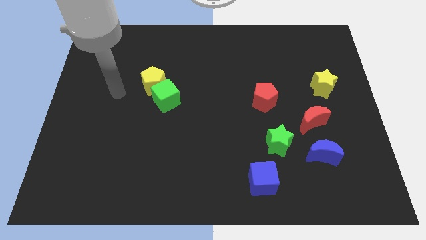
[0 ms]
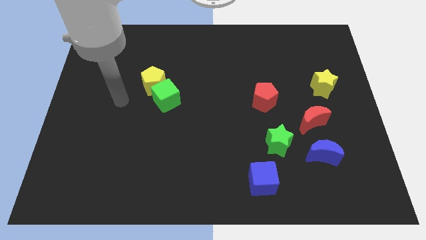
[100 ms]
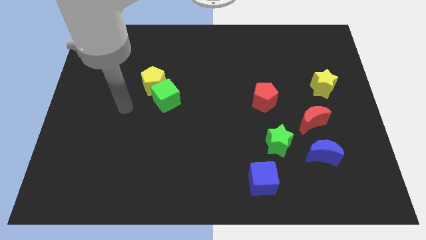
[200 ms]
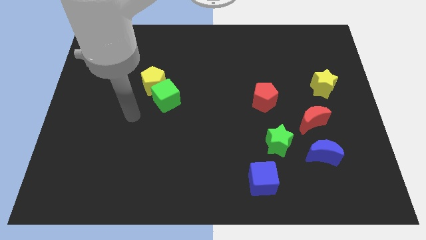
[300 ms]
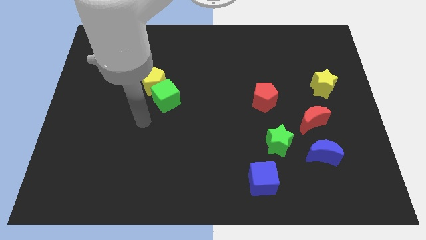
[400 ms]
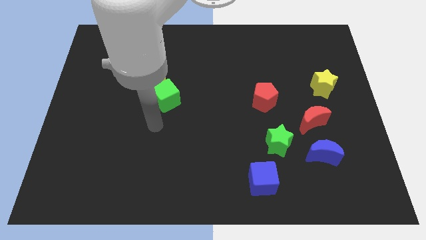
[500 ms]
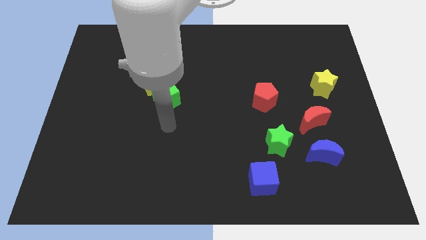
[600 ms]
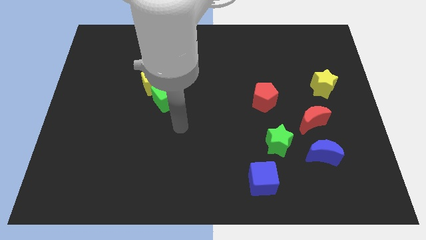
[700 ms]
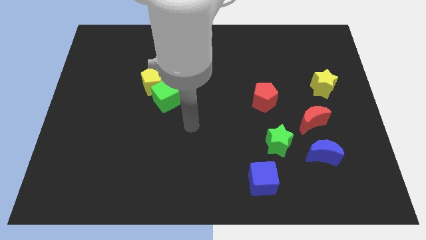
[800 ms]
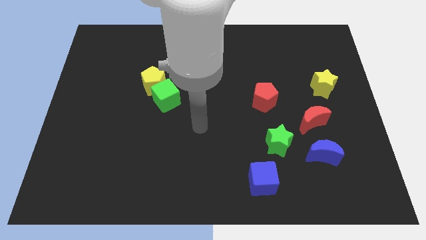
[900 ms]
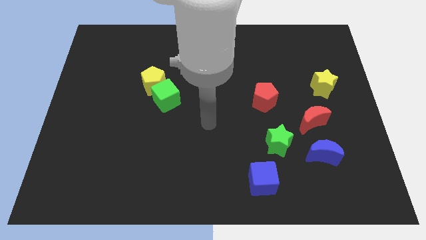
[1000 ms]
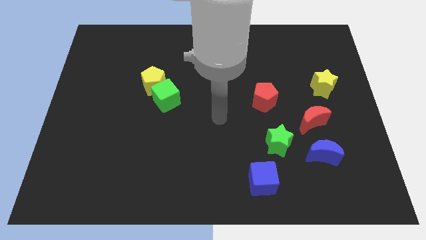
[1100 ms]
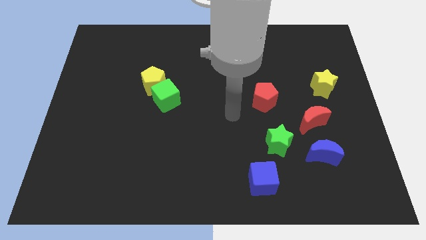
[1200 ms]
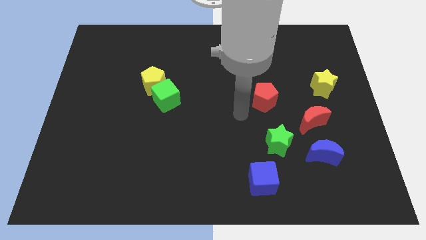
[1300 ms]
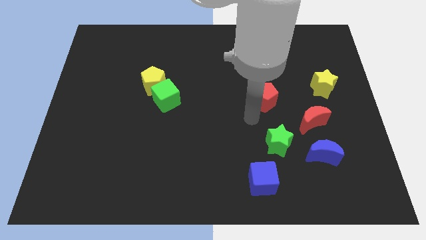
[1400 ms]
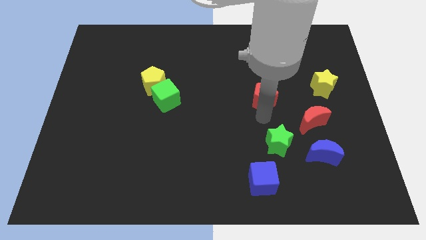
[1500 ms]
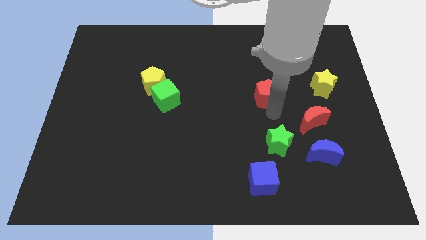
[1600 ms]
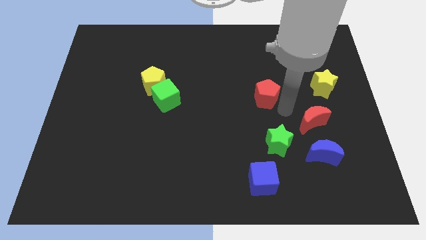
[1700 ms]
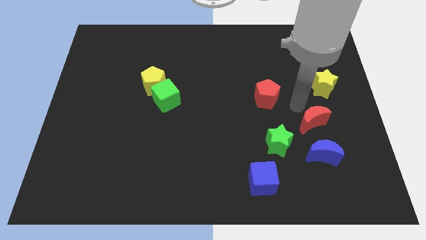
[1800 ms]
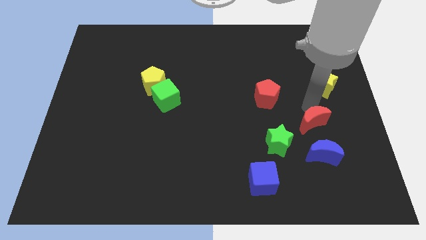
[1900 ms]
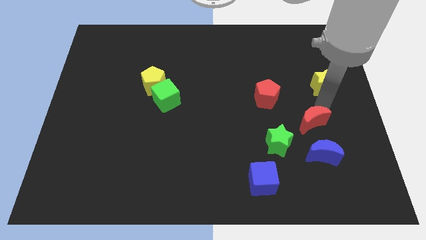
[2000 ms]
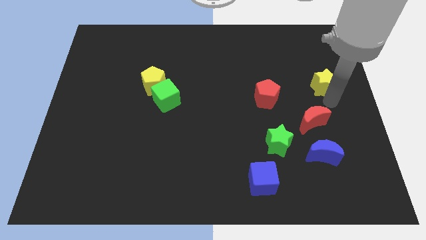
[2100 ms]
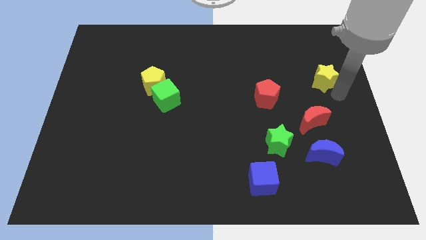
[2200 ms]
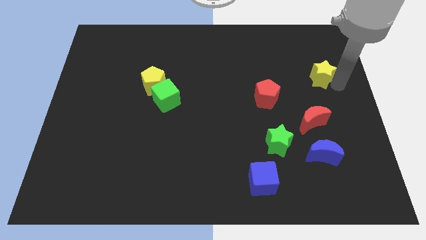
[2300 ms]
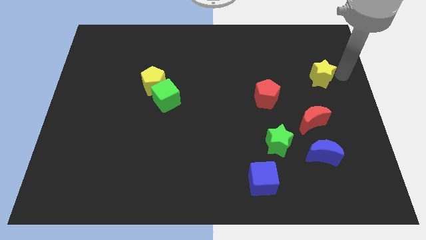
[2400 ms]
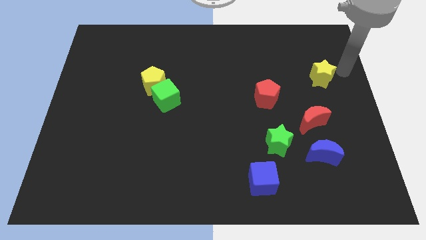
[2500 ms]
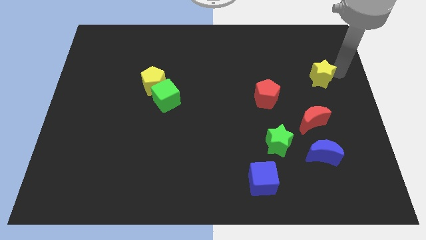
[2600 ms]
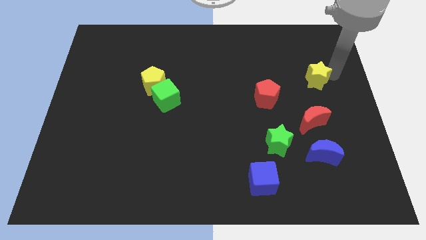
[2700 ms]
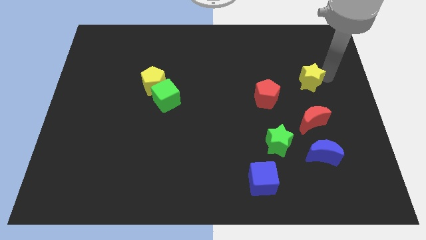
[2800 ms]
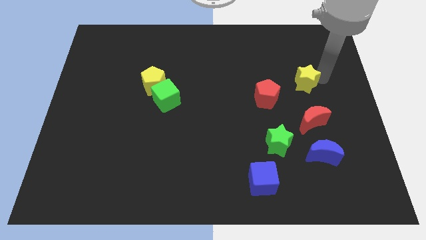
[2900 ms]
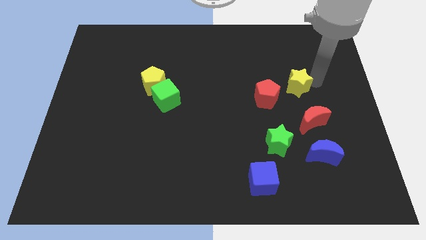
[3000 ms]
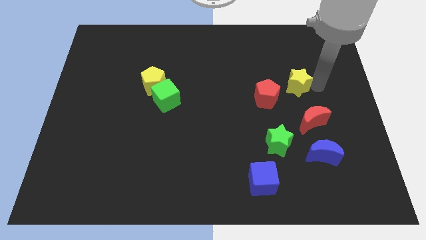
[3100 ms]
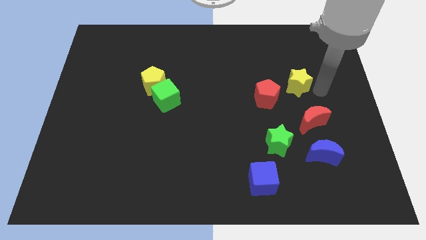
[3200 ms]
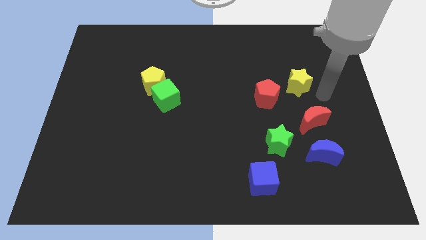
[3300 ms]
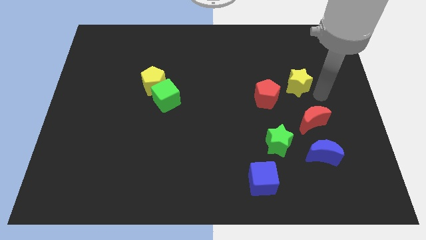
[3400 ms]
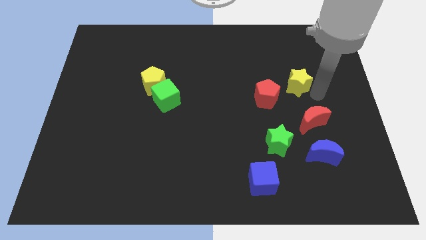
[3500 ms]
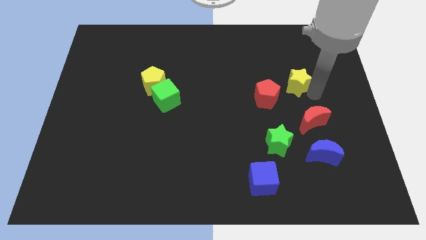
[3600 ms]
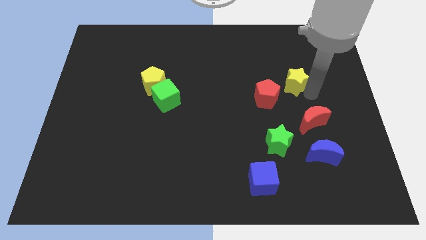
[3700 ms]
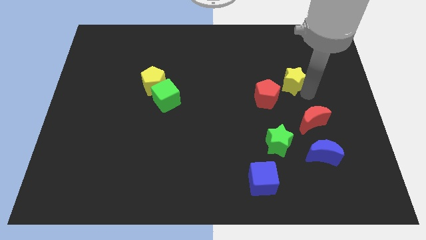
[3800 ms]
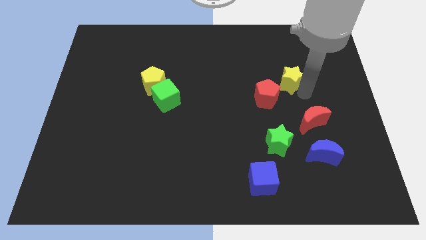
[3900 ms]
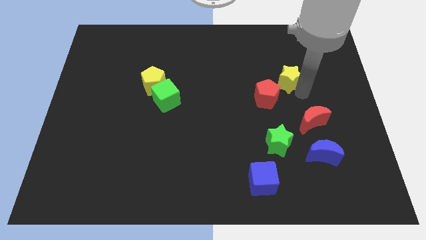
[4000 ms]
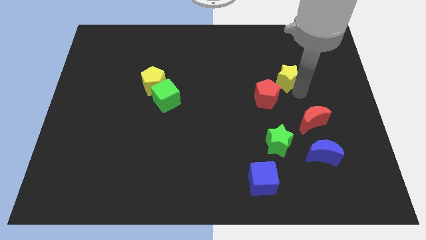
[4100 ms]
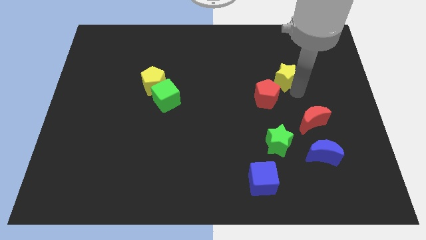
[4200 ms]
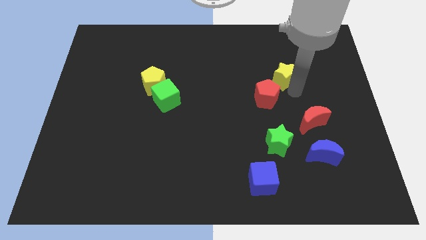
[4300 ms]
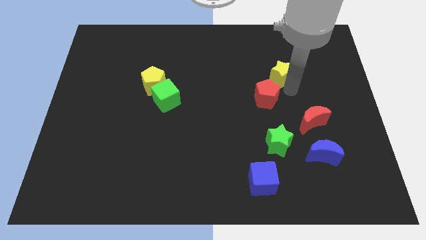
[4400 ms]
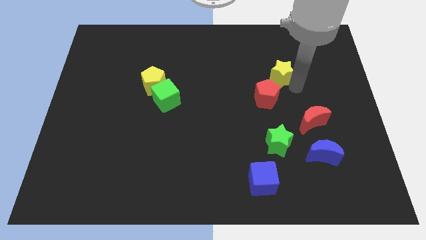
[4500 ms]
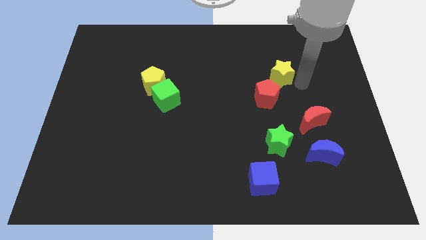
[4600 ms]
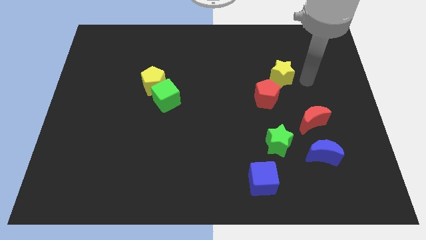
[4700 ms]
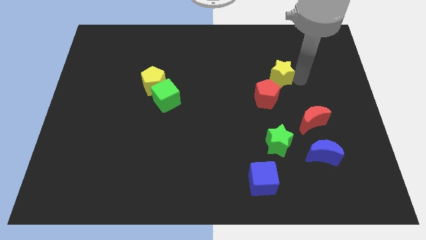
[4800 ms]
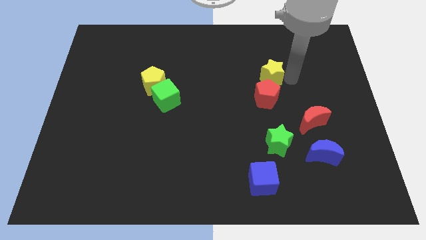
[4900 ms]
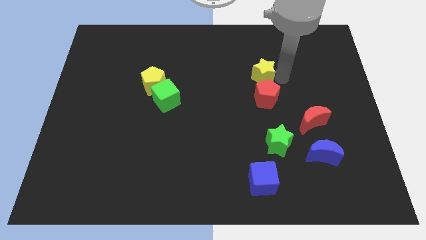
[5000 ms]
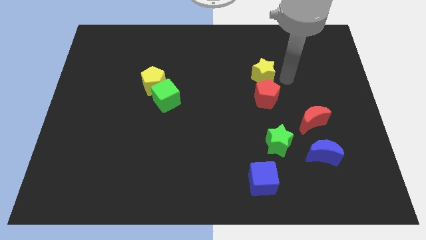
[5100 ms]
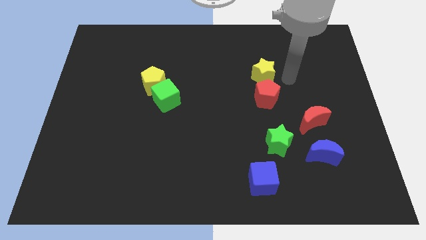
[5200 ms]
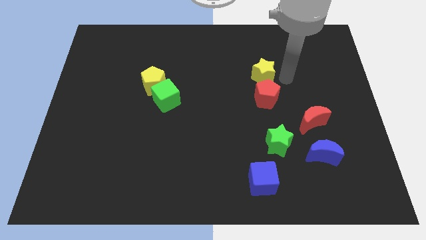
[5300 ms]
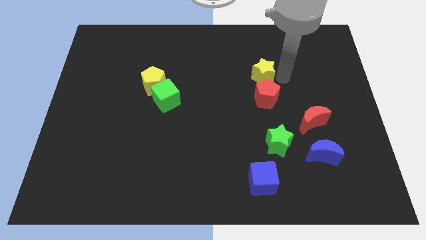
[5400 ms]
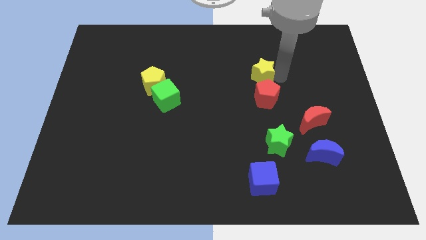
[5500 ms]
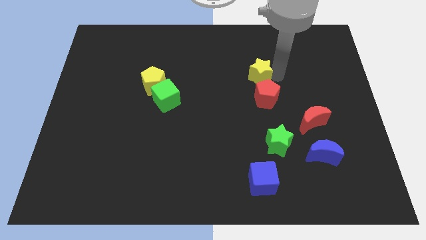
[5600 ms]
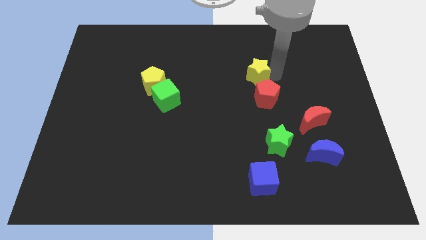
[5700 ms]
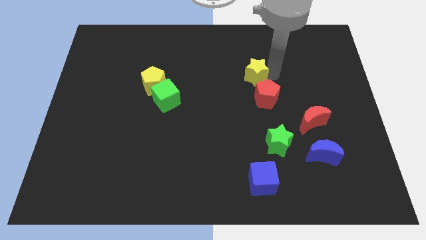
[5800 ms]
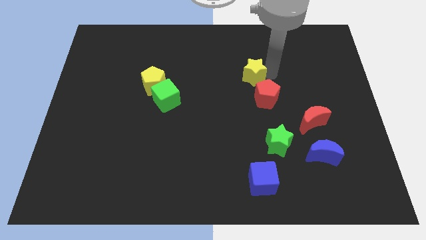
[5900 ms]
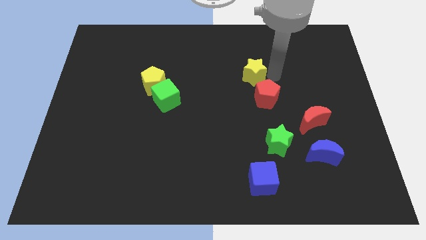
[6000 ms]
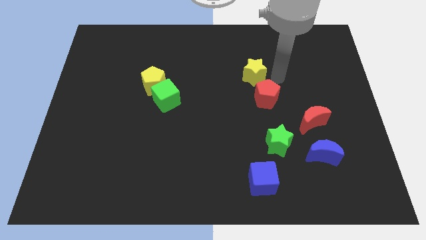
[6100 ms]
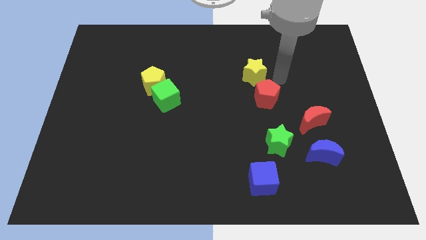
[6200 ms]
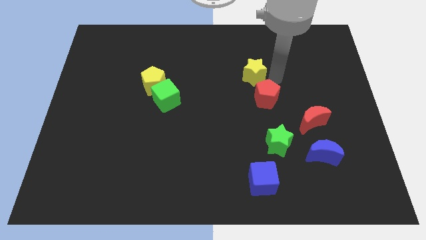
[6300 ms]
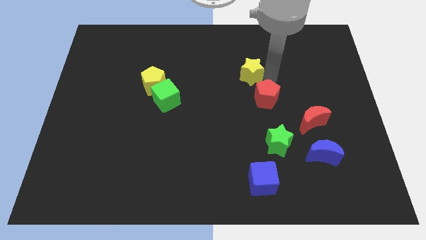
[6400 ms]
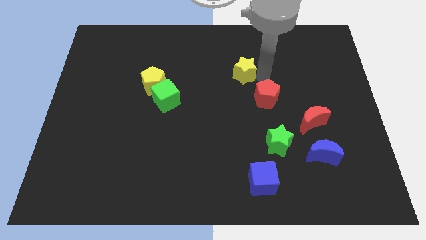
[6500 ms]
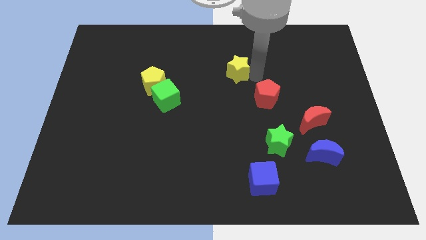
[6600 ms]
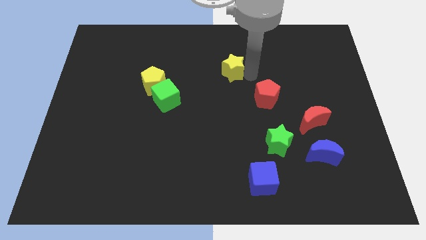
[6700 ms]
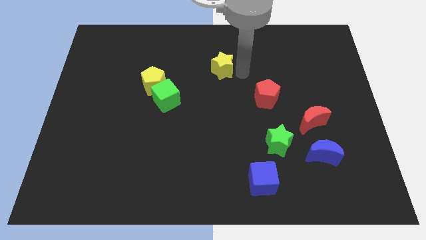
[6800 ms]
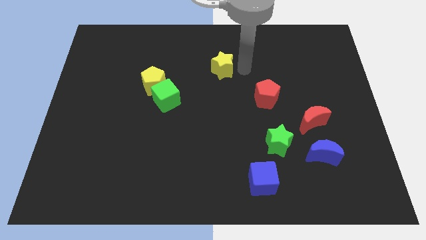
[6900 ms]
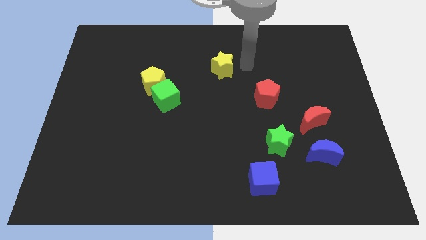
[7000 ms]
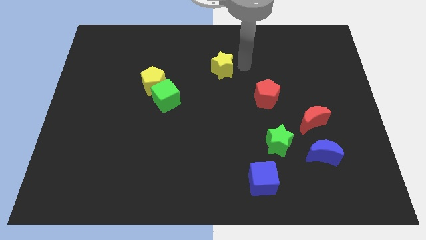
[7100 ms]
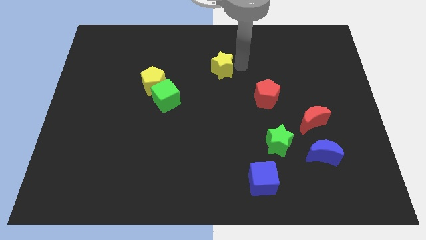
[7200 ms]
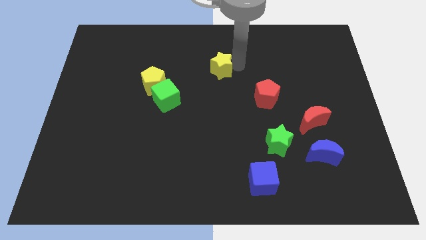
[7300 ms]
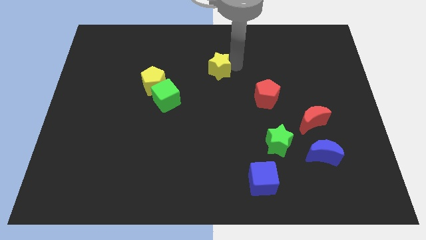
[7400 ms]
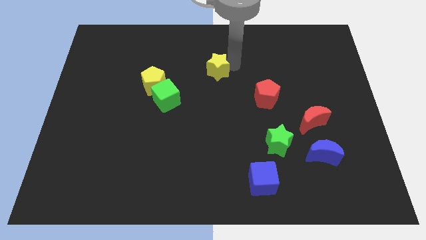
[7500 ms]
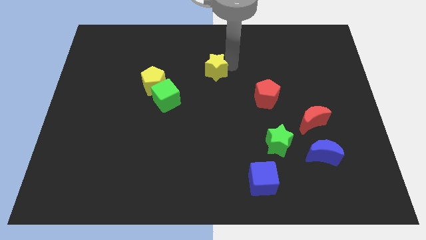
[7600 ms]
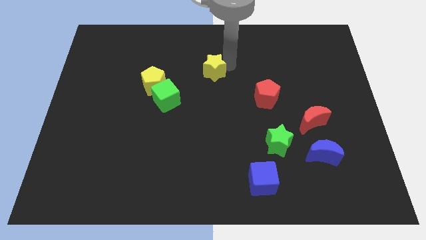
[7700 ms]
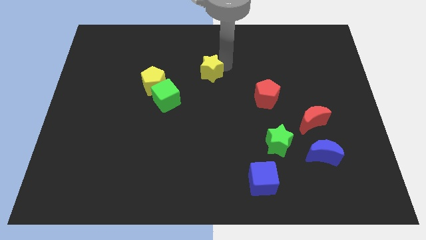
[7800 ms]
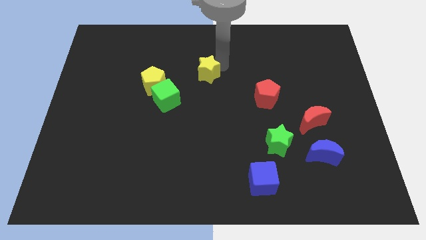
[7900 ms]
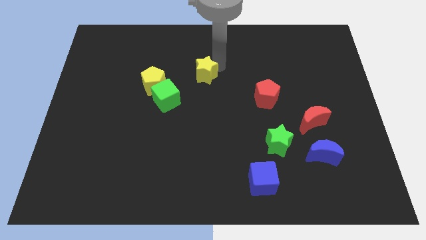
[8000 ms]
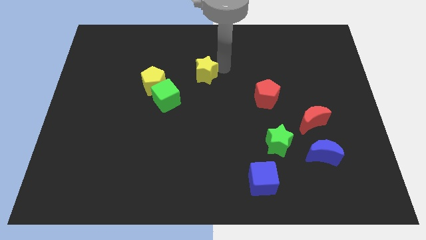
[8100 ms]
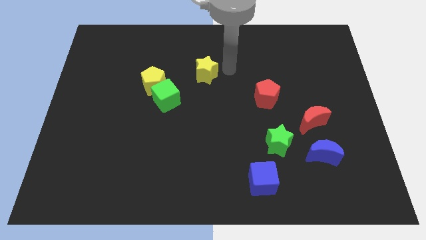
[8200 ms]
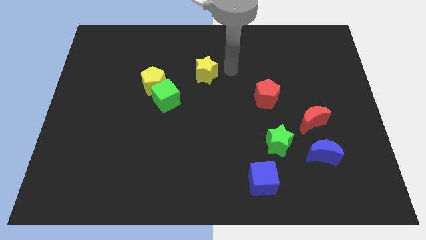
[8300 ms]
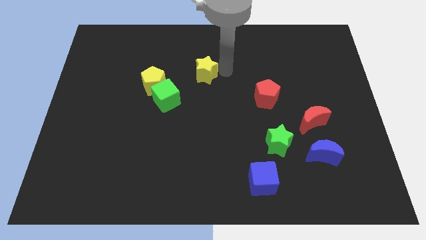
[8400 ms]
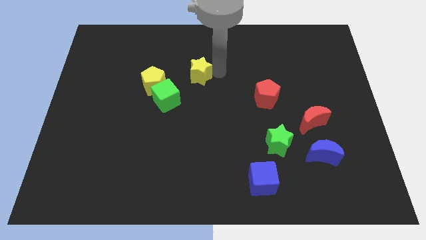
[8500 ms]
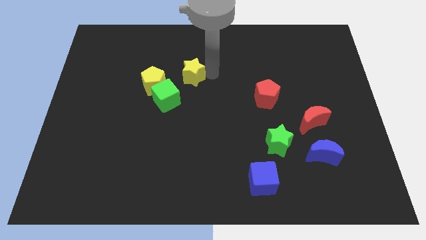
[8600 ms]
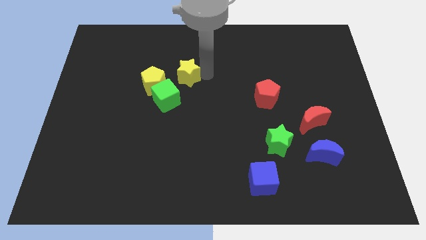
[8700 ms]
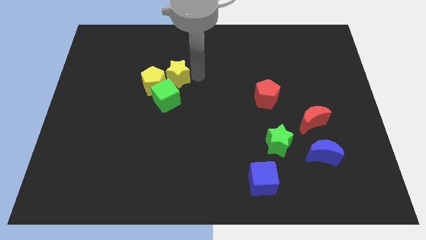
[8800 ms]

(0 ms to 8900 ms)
slide the yellow star close to the yellow pentagon
